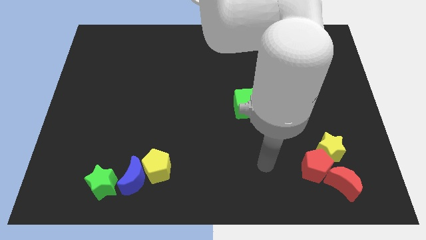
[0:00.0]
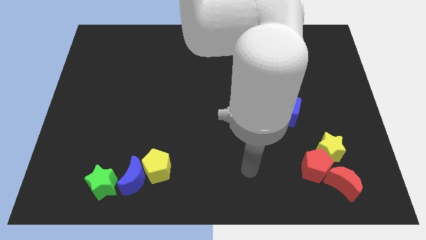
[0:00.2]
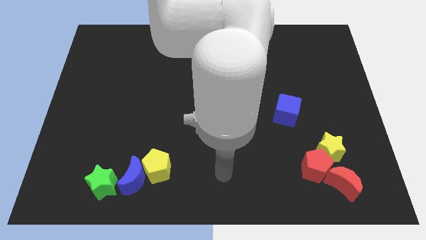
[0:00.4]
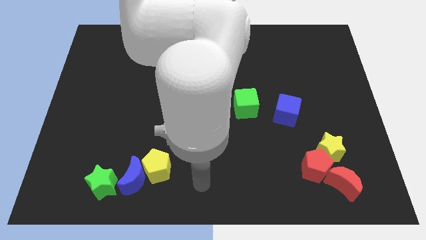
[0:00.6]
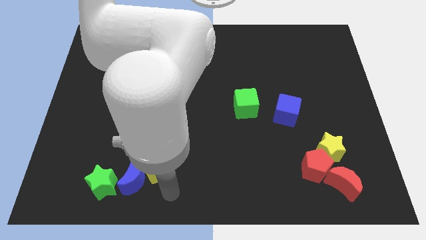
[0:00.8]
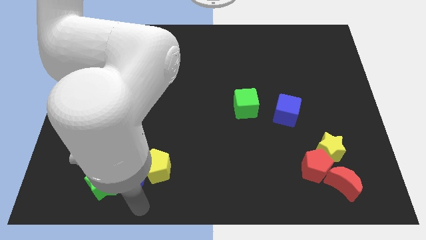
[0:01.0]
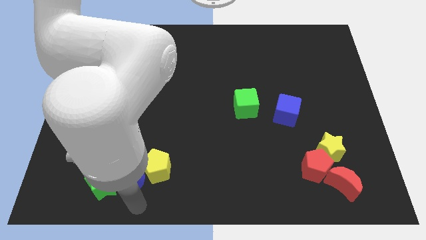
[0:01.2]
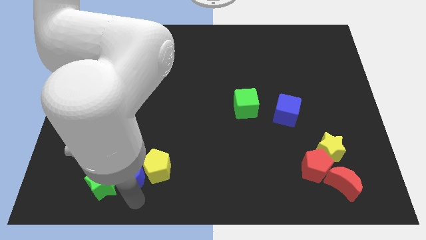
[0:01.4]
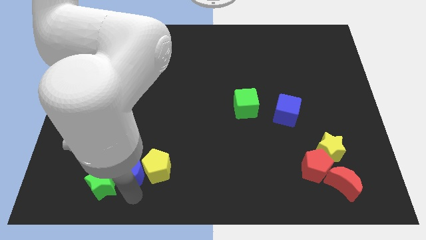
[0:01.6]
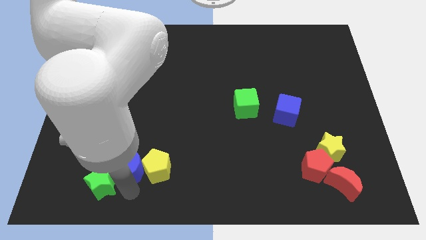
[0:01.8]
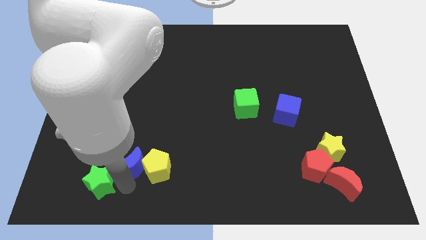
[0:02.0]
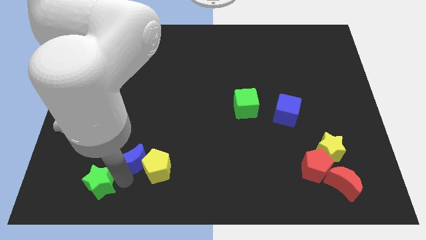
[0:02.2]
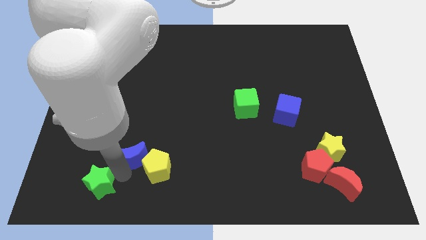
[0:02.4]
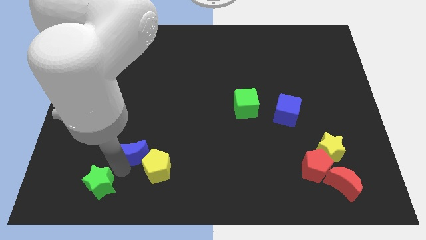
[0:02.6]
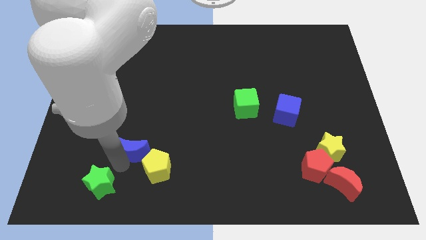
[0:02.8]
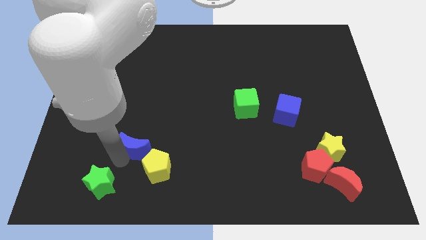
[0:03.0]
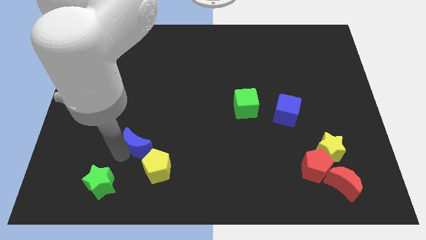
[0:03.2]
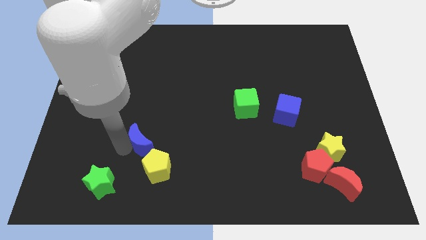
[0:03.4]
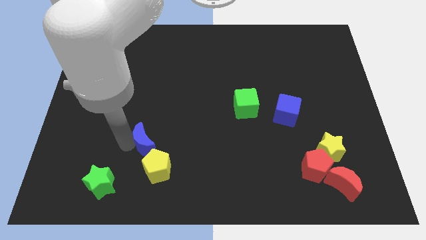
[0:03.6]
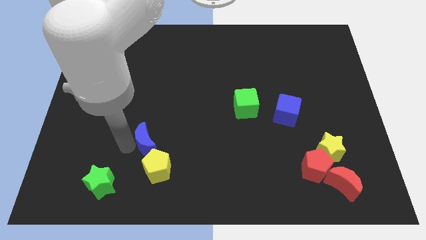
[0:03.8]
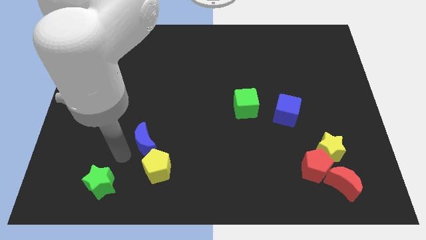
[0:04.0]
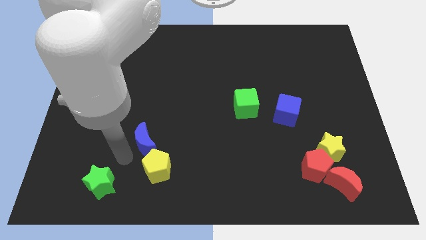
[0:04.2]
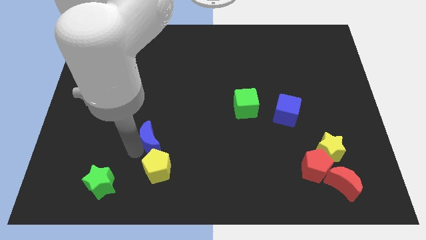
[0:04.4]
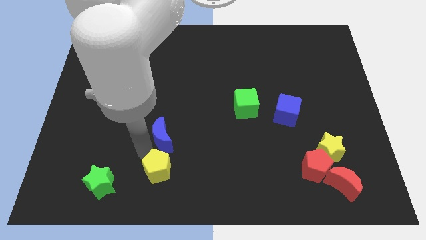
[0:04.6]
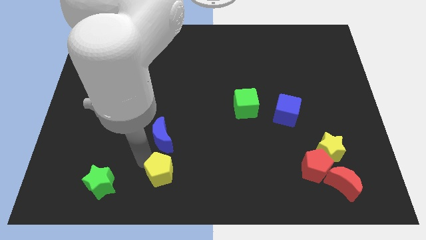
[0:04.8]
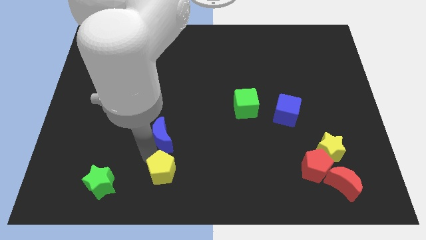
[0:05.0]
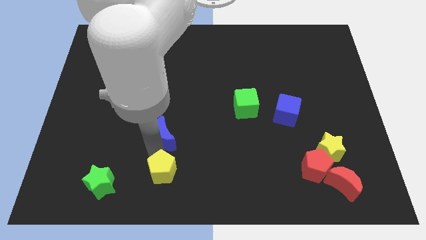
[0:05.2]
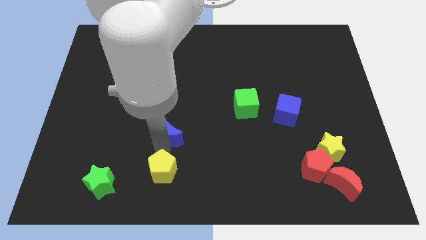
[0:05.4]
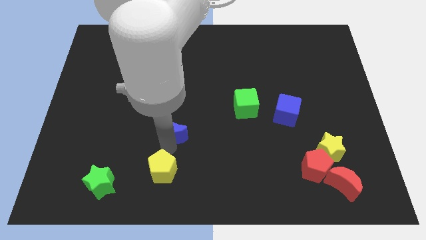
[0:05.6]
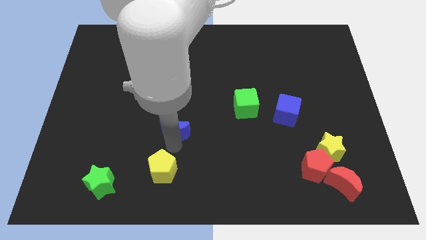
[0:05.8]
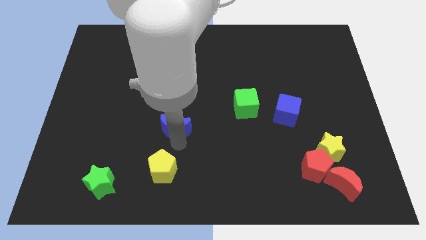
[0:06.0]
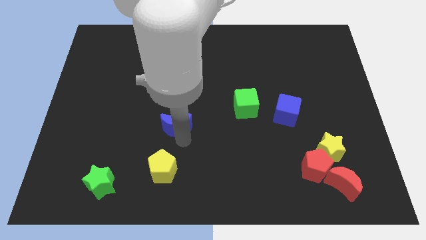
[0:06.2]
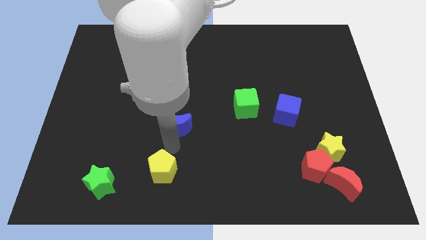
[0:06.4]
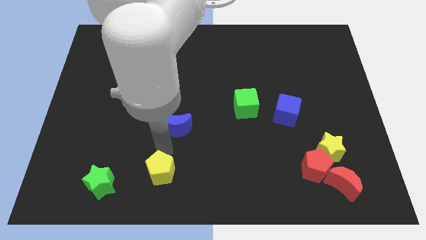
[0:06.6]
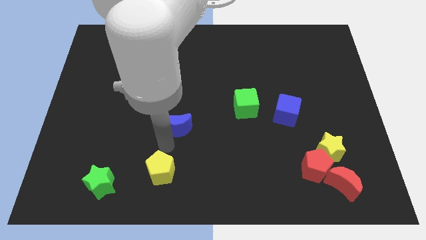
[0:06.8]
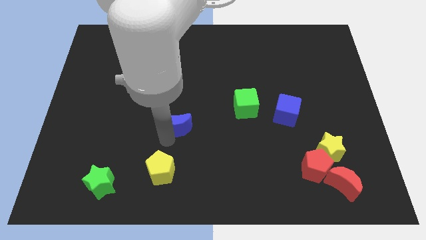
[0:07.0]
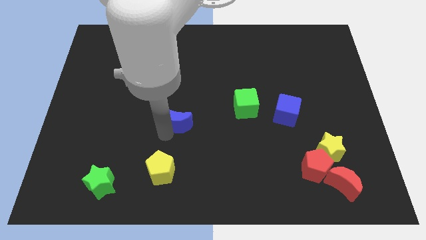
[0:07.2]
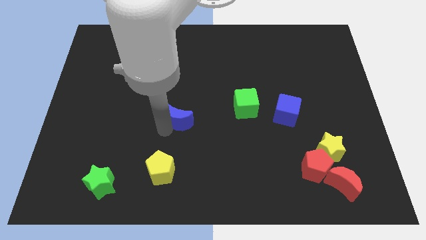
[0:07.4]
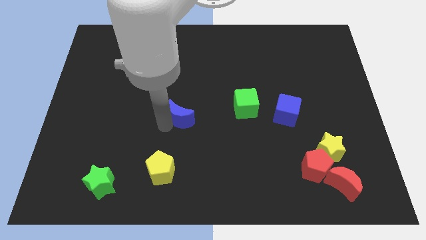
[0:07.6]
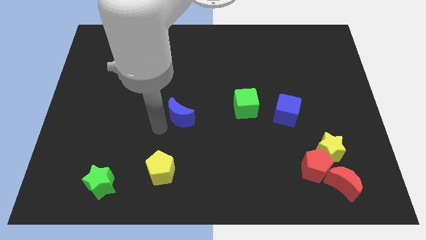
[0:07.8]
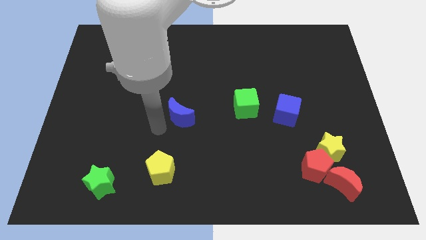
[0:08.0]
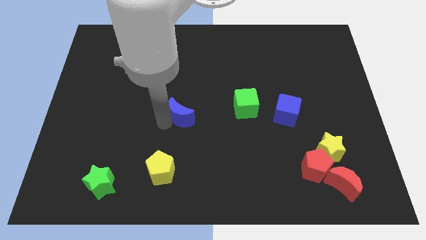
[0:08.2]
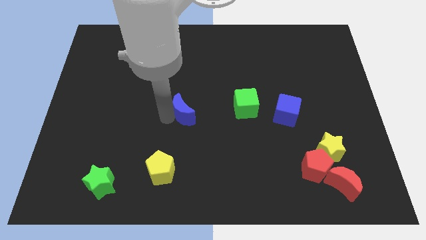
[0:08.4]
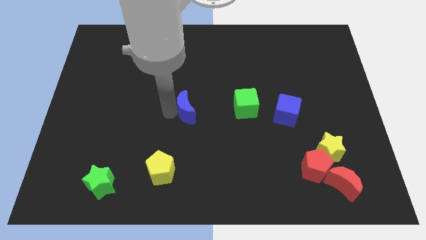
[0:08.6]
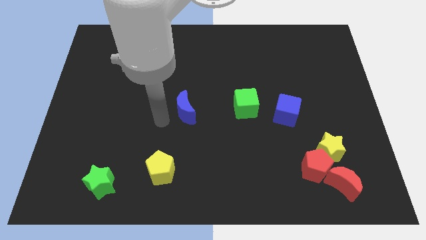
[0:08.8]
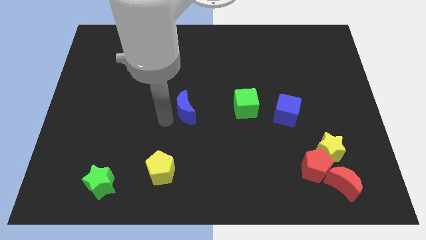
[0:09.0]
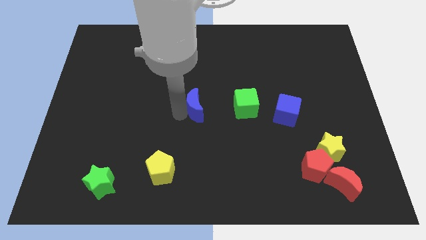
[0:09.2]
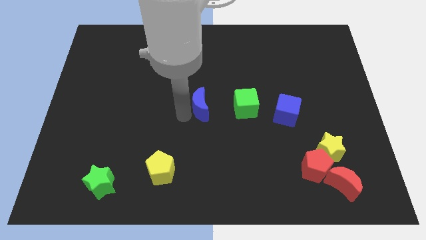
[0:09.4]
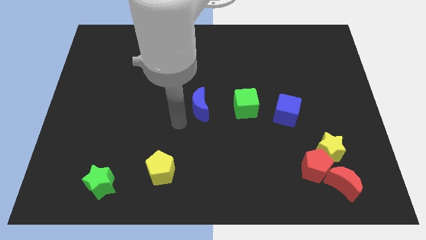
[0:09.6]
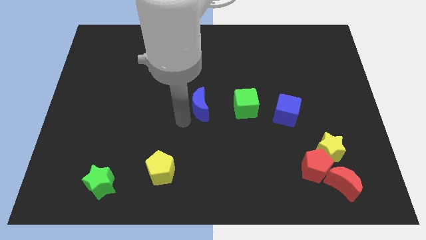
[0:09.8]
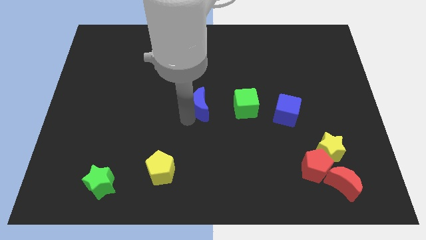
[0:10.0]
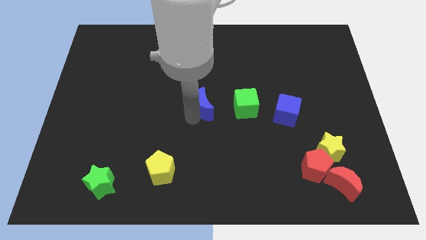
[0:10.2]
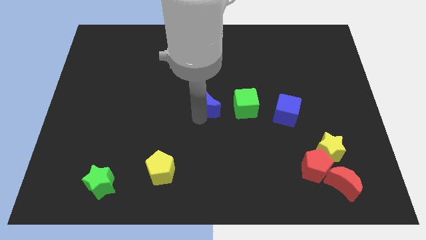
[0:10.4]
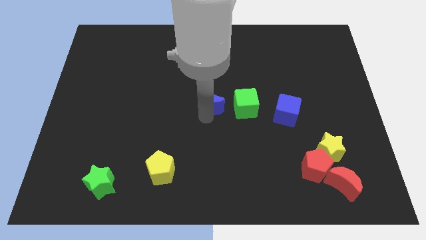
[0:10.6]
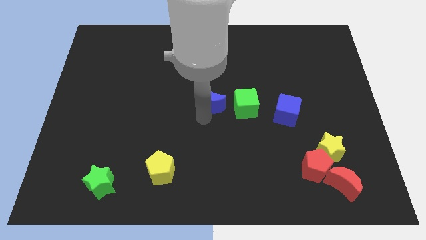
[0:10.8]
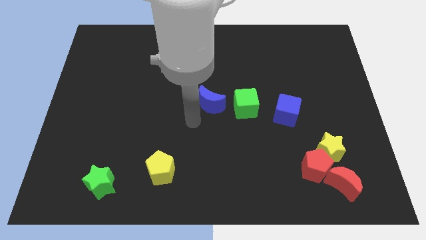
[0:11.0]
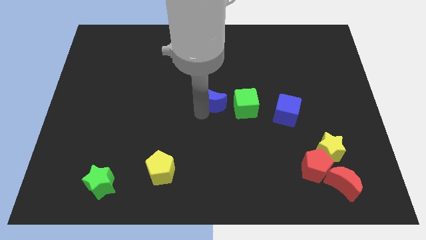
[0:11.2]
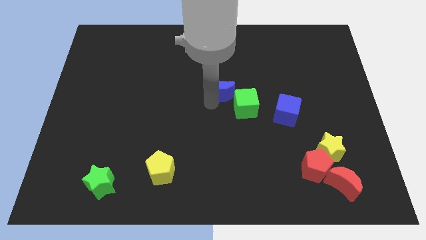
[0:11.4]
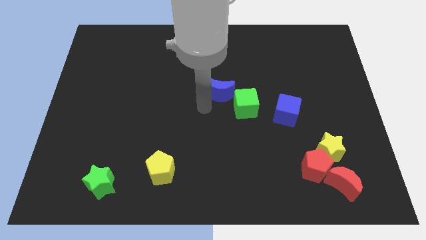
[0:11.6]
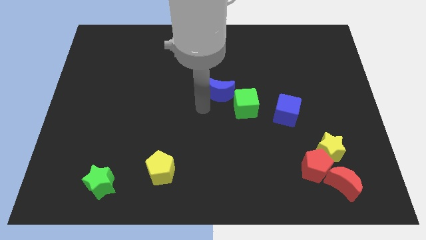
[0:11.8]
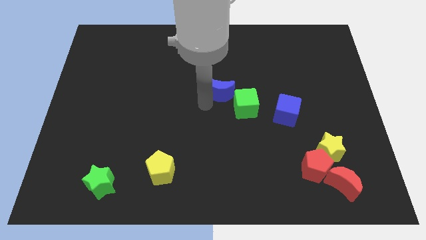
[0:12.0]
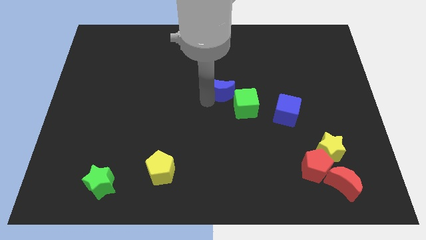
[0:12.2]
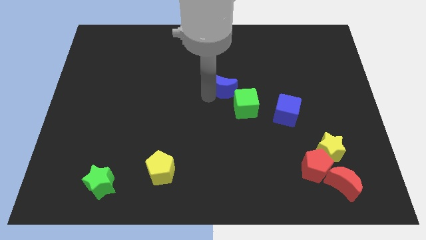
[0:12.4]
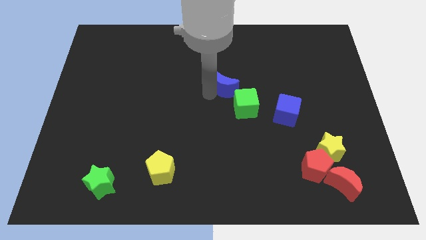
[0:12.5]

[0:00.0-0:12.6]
put the blue moon to the top side of the green cube

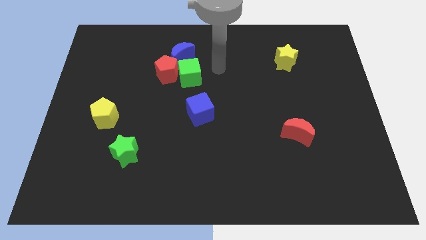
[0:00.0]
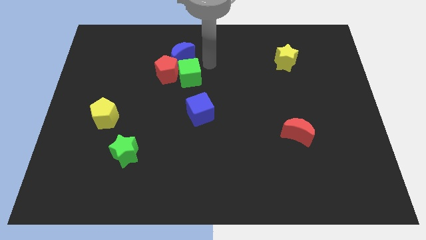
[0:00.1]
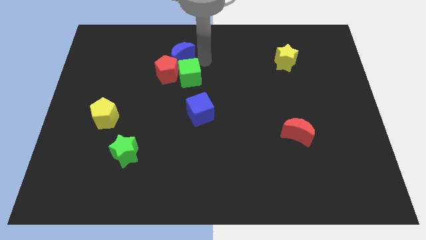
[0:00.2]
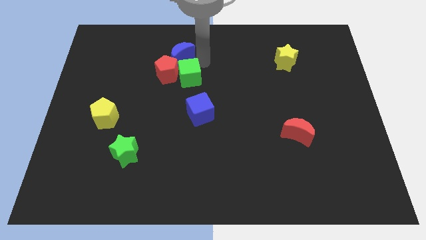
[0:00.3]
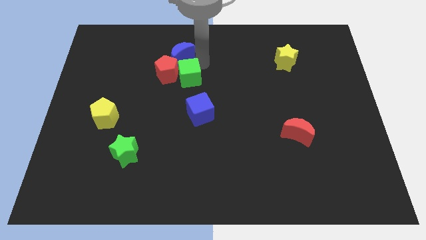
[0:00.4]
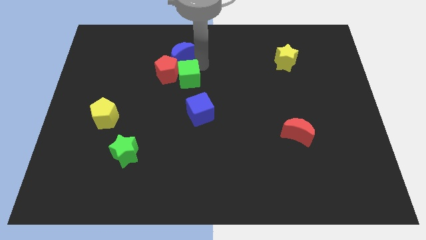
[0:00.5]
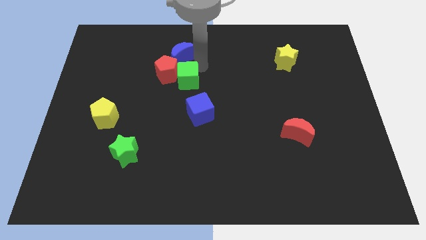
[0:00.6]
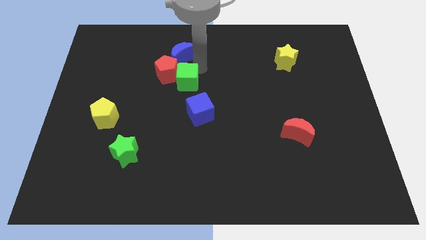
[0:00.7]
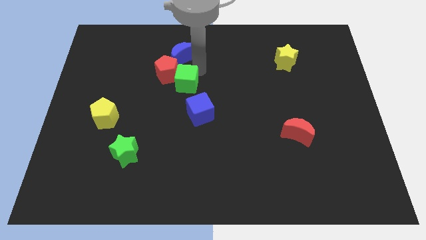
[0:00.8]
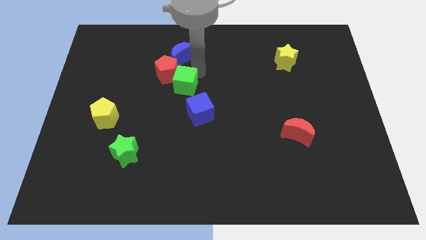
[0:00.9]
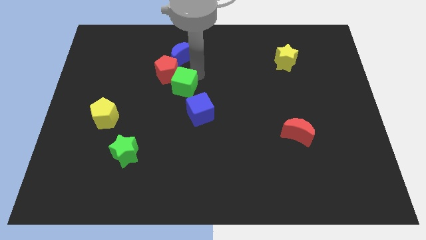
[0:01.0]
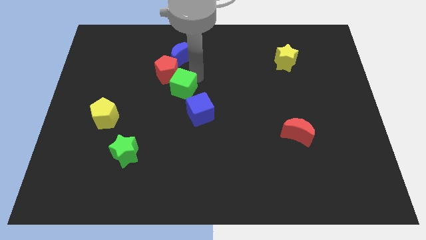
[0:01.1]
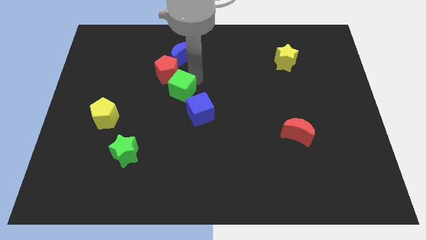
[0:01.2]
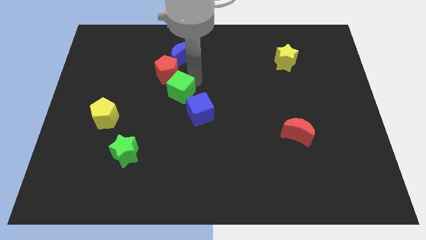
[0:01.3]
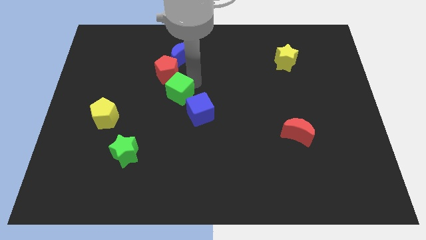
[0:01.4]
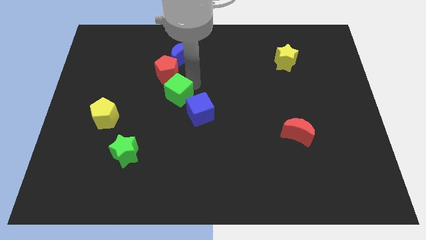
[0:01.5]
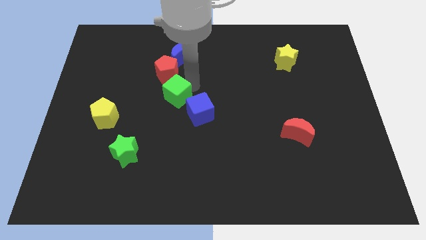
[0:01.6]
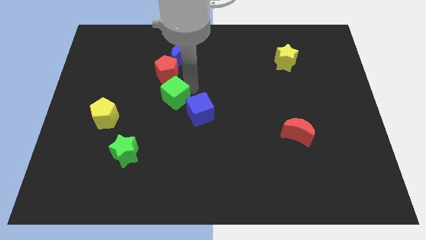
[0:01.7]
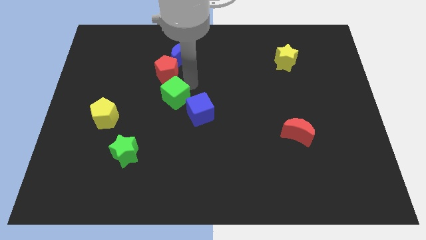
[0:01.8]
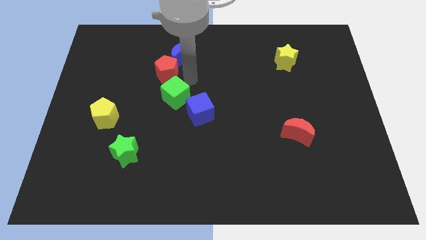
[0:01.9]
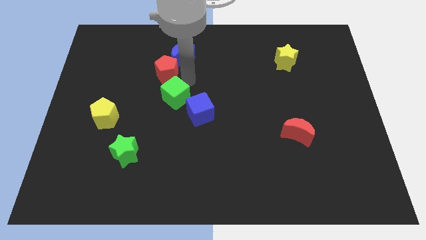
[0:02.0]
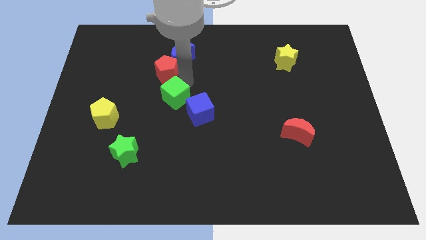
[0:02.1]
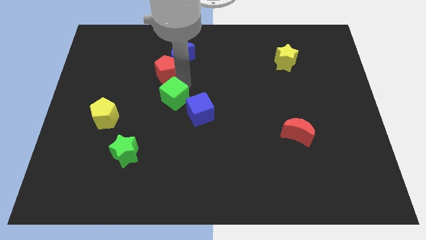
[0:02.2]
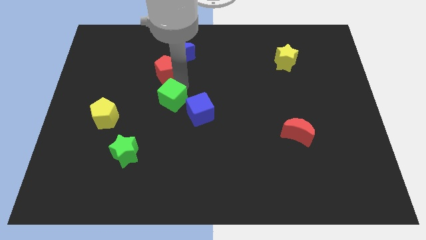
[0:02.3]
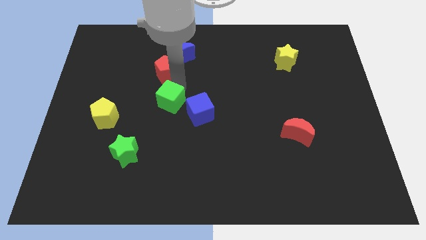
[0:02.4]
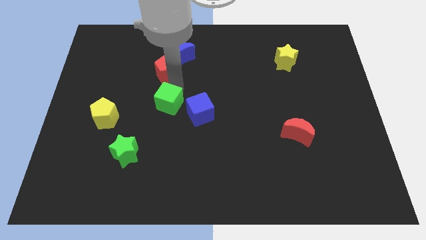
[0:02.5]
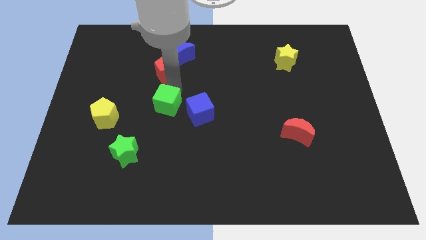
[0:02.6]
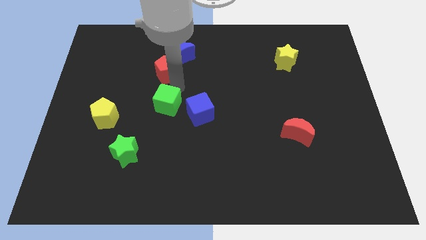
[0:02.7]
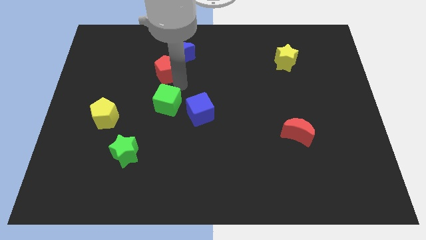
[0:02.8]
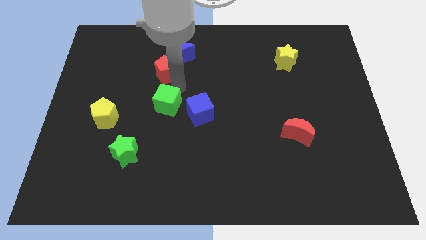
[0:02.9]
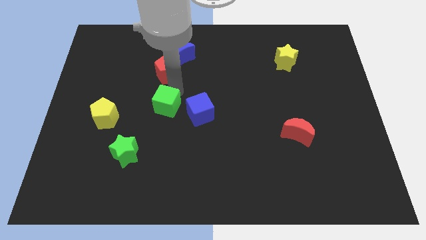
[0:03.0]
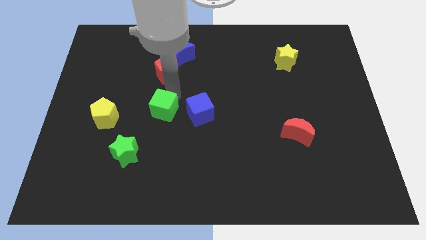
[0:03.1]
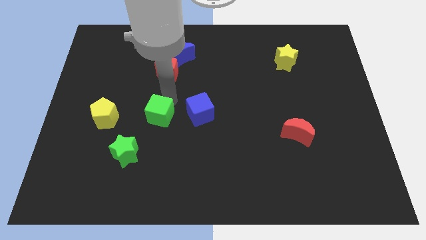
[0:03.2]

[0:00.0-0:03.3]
slide the green cube to the top right side of the green star
